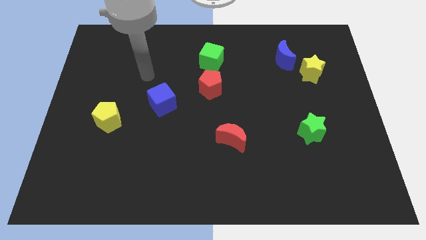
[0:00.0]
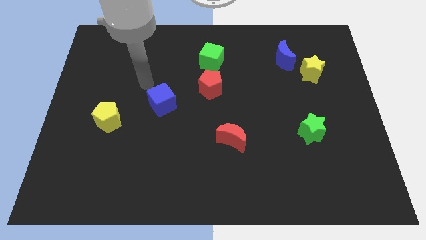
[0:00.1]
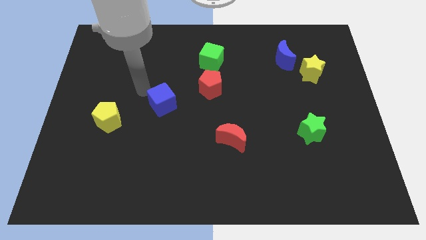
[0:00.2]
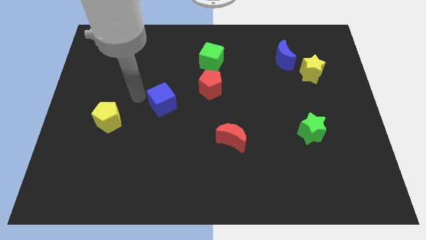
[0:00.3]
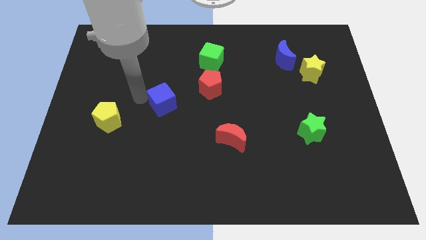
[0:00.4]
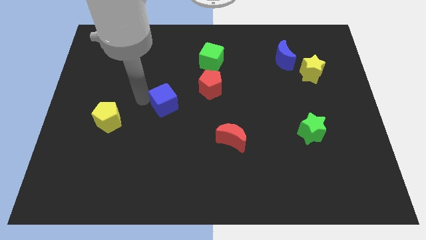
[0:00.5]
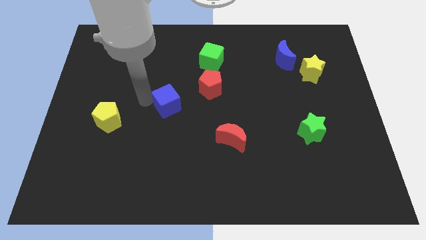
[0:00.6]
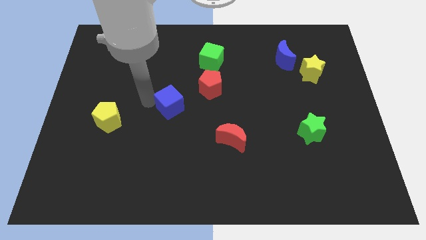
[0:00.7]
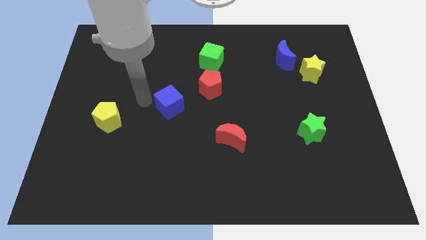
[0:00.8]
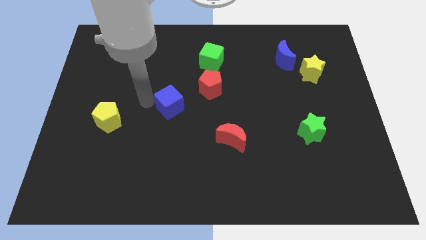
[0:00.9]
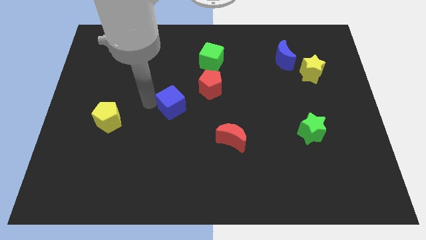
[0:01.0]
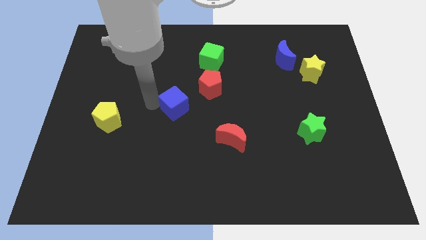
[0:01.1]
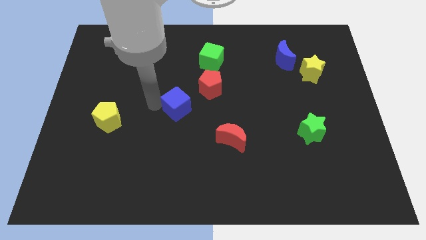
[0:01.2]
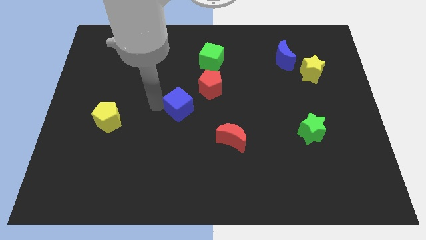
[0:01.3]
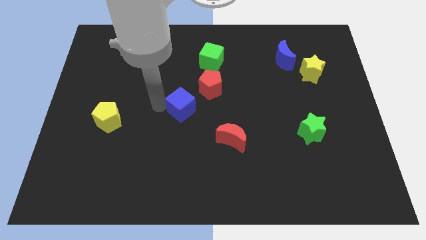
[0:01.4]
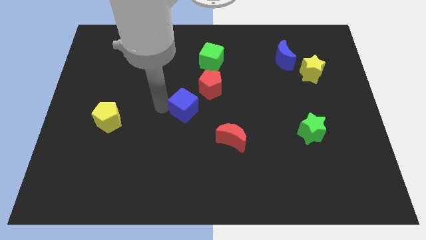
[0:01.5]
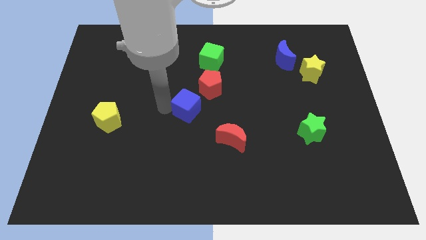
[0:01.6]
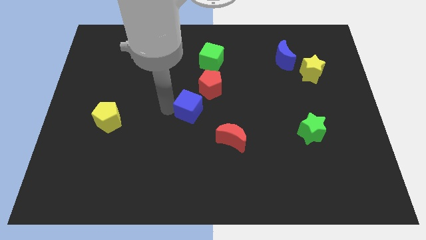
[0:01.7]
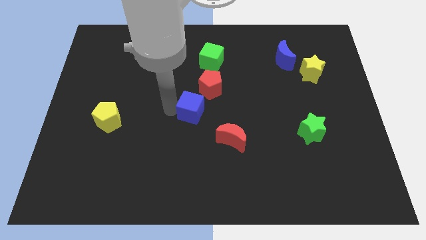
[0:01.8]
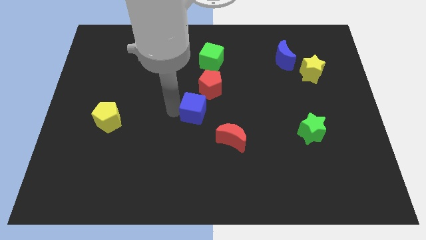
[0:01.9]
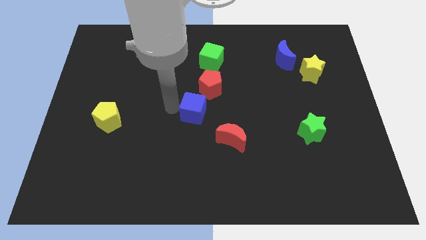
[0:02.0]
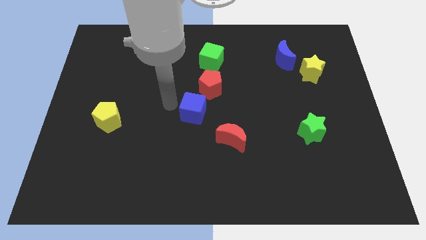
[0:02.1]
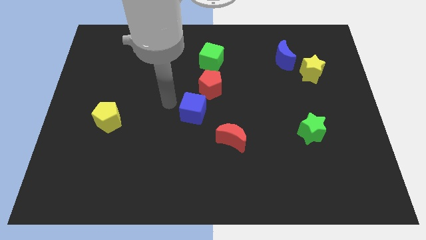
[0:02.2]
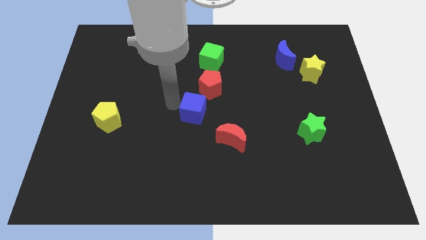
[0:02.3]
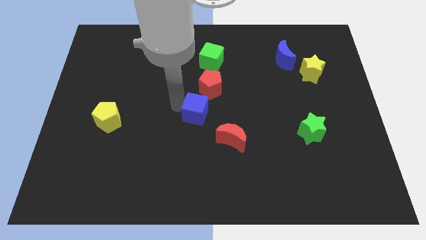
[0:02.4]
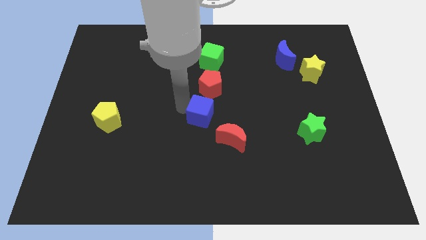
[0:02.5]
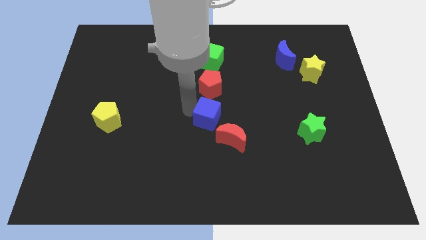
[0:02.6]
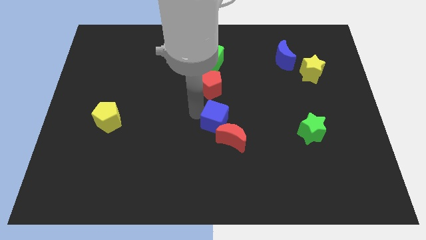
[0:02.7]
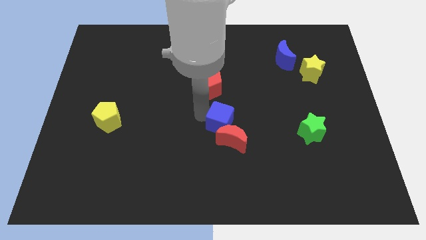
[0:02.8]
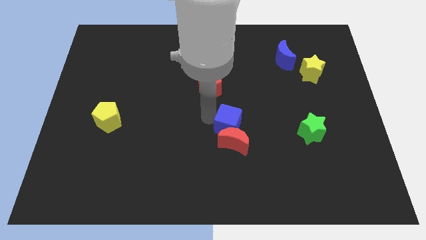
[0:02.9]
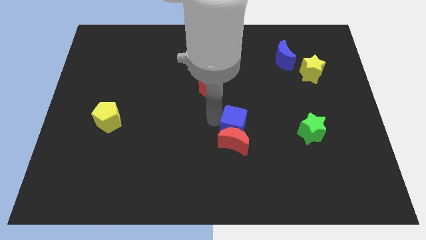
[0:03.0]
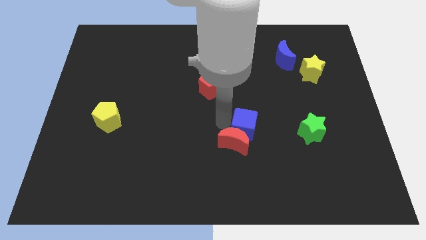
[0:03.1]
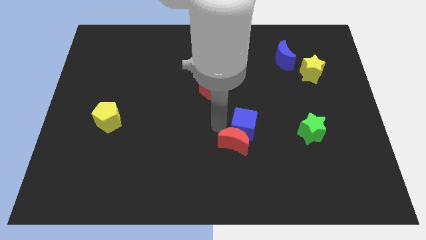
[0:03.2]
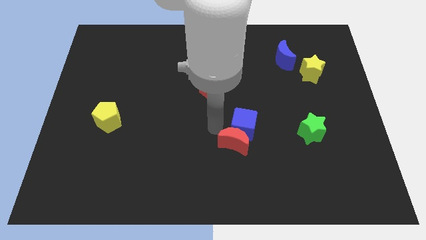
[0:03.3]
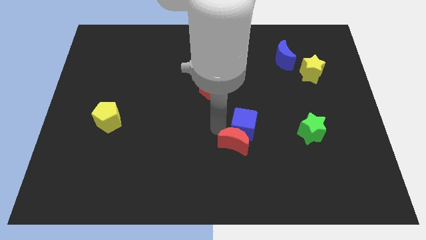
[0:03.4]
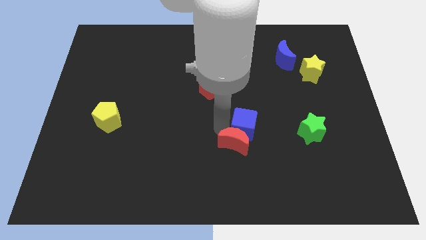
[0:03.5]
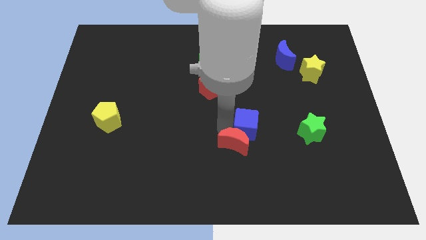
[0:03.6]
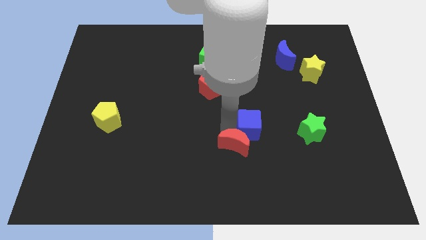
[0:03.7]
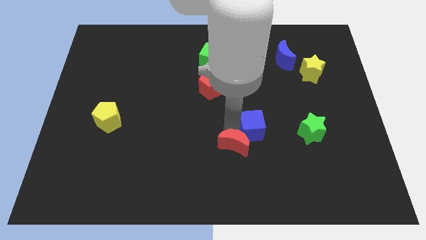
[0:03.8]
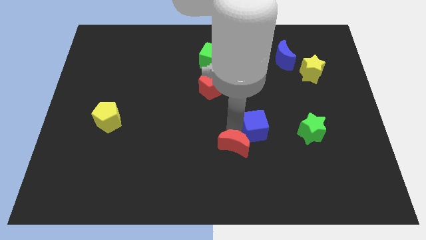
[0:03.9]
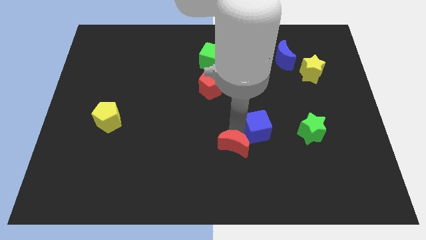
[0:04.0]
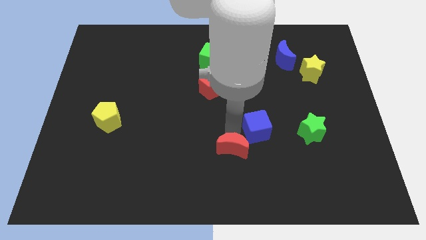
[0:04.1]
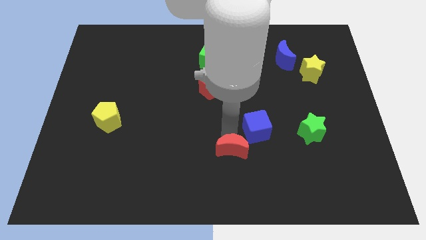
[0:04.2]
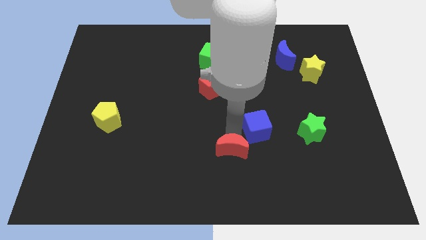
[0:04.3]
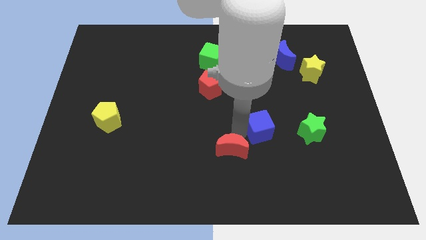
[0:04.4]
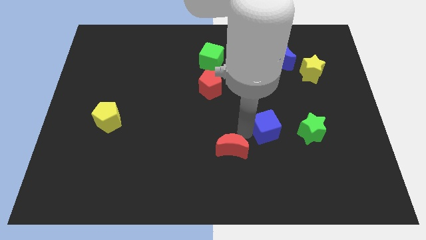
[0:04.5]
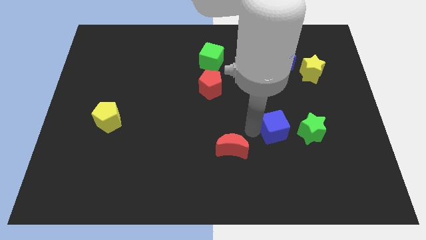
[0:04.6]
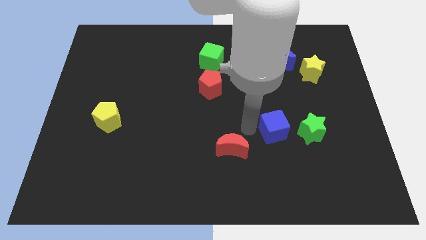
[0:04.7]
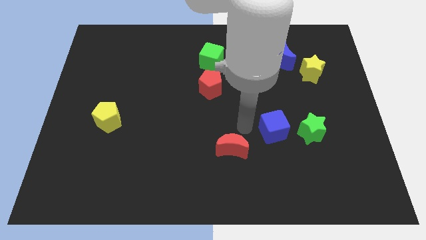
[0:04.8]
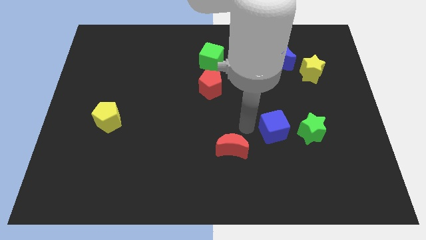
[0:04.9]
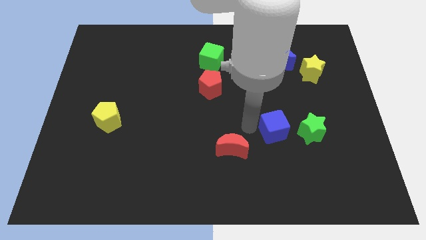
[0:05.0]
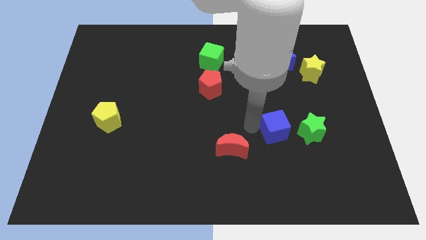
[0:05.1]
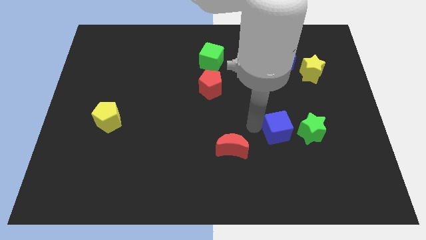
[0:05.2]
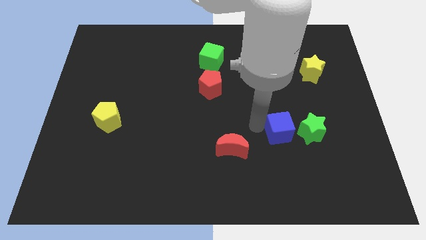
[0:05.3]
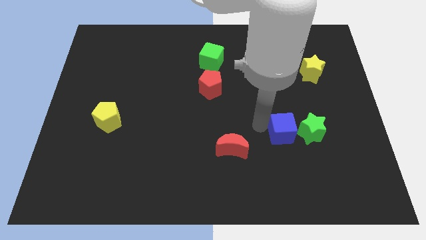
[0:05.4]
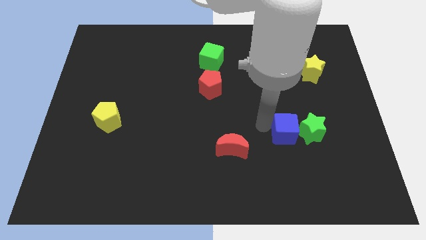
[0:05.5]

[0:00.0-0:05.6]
push the blue cube next to the green star

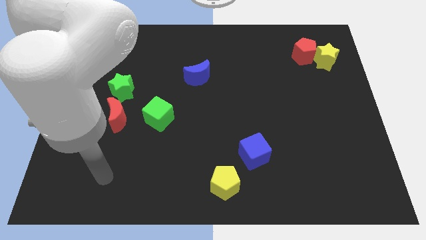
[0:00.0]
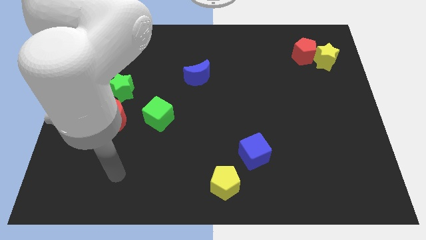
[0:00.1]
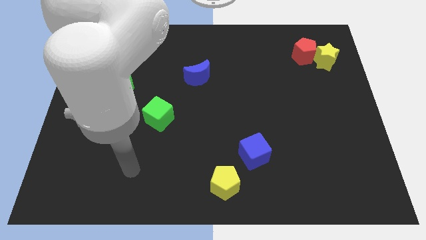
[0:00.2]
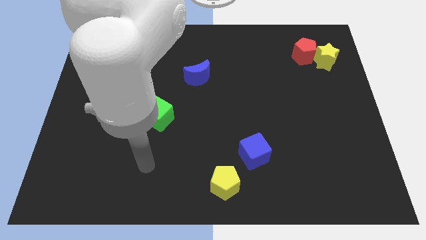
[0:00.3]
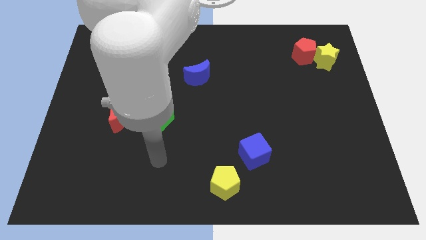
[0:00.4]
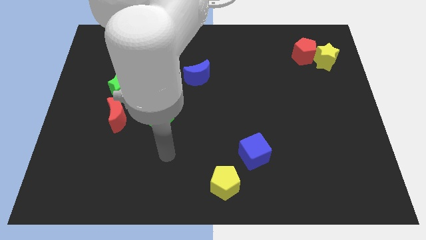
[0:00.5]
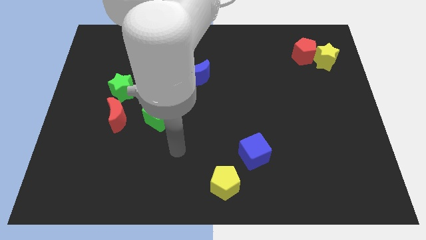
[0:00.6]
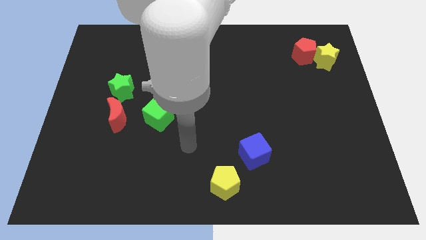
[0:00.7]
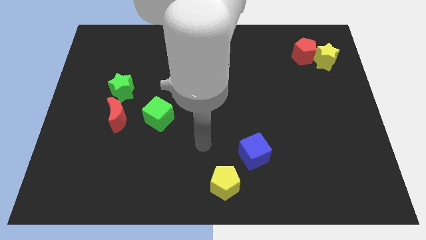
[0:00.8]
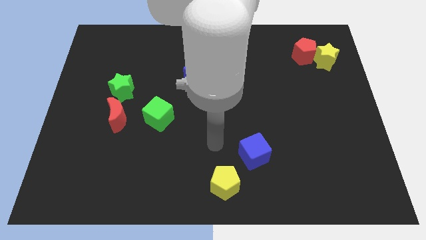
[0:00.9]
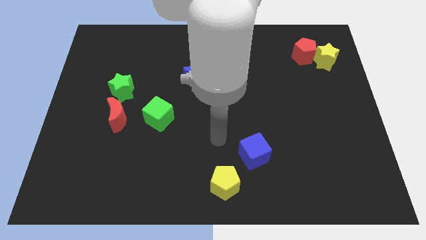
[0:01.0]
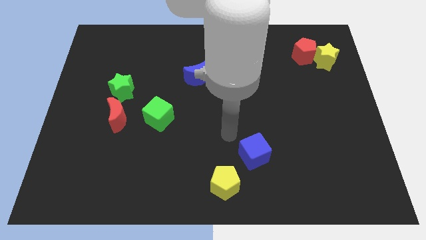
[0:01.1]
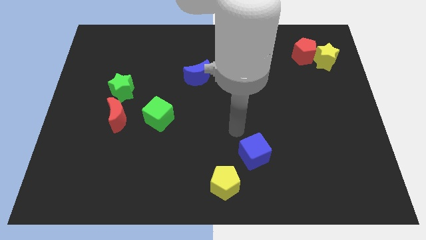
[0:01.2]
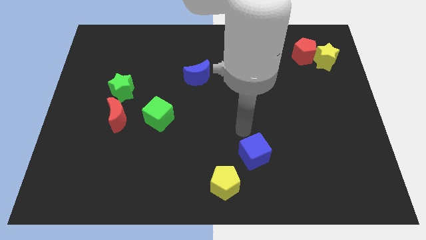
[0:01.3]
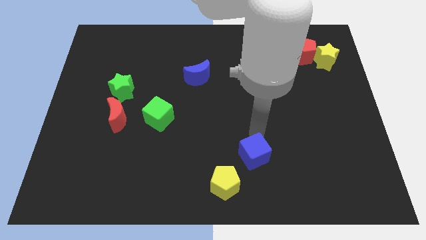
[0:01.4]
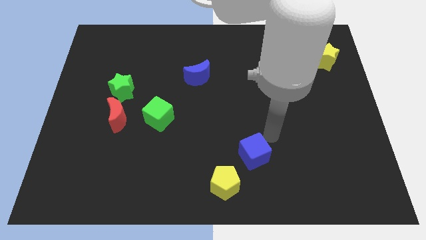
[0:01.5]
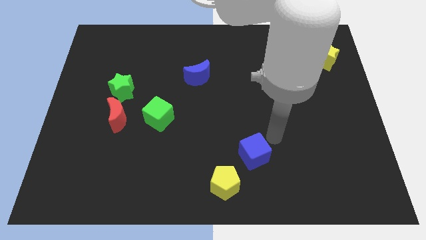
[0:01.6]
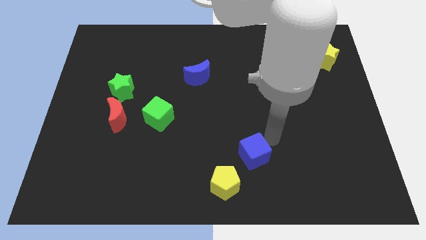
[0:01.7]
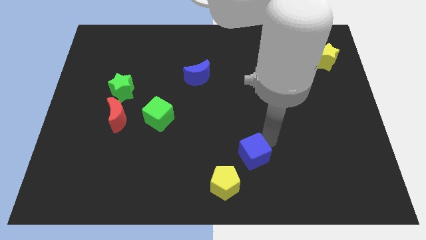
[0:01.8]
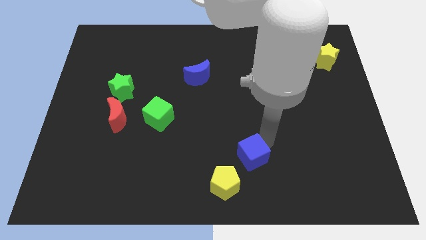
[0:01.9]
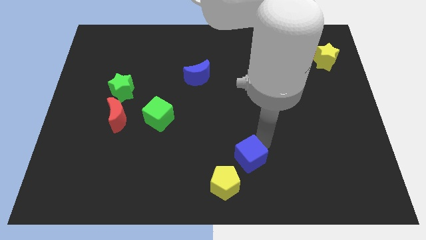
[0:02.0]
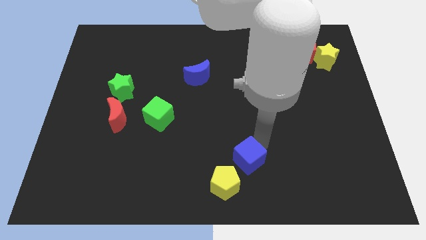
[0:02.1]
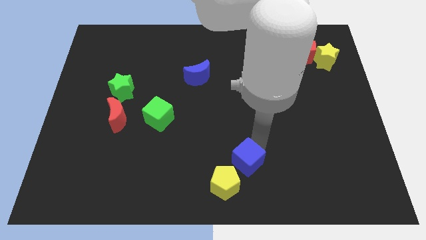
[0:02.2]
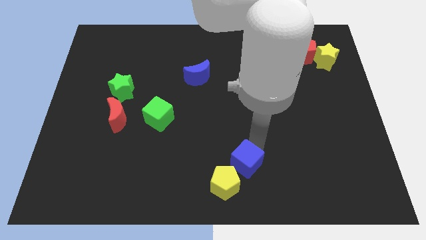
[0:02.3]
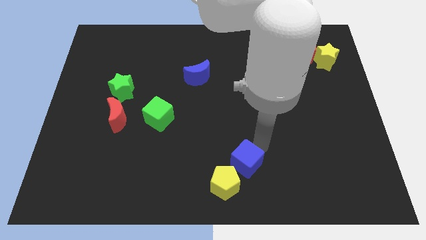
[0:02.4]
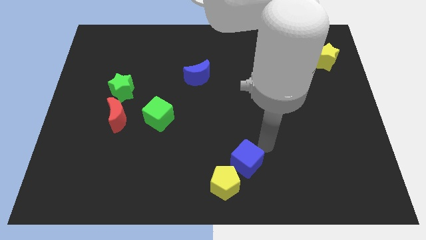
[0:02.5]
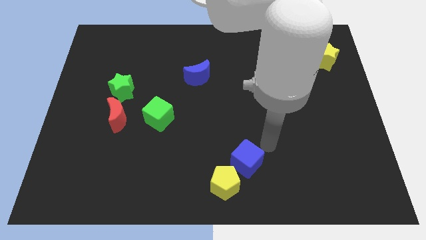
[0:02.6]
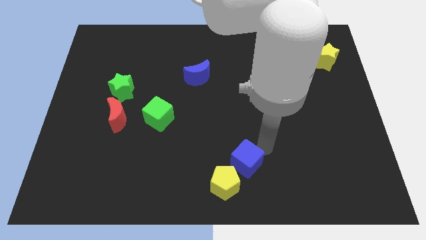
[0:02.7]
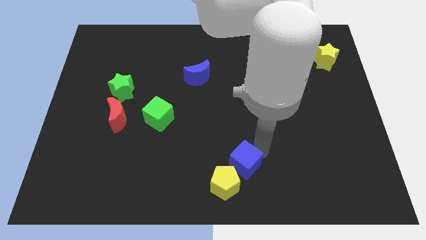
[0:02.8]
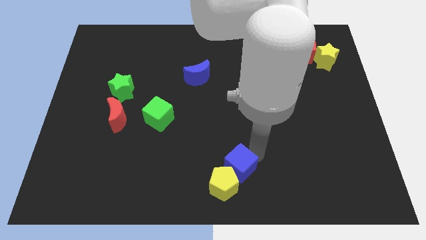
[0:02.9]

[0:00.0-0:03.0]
push the blue cube next to the yellow pentagon
